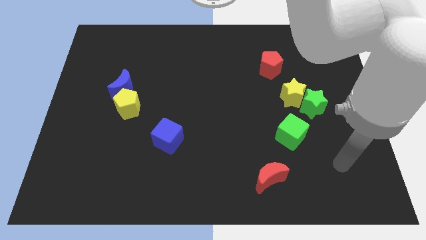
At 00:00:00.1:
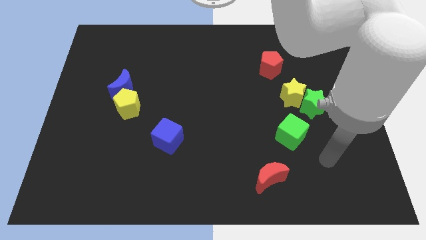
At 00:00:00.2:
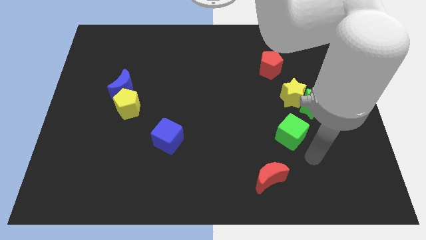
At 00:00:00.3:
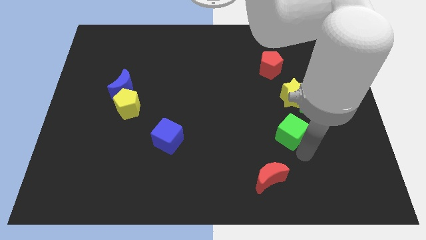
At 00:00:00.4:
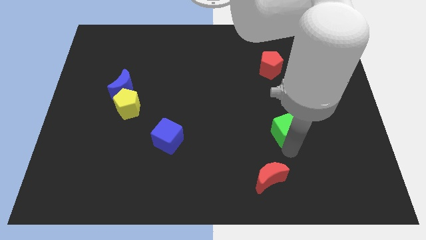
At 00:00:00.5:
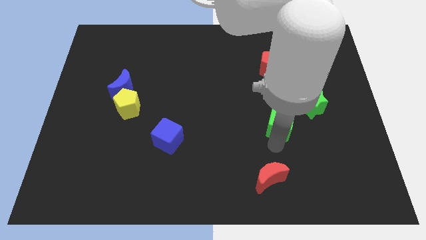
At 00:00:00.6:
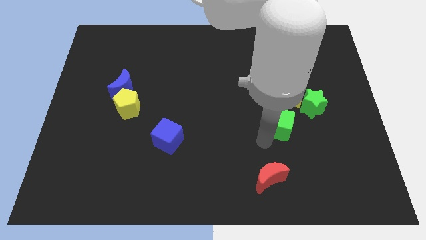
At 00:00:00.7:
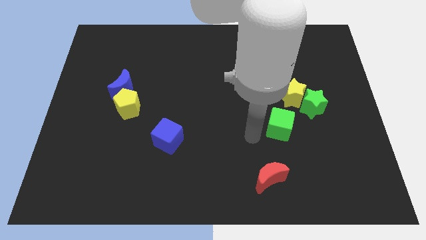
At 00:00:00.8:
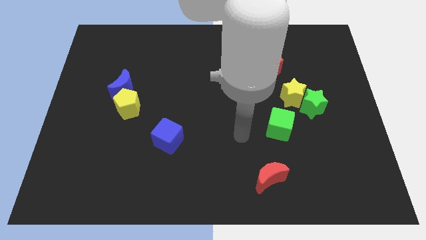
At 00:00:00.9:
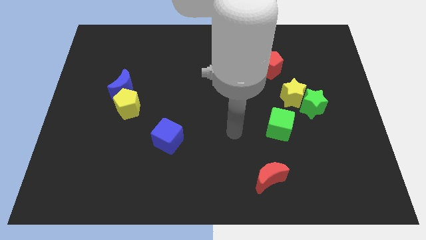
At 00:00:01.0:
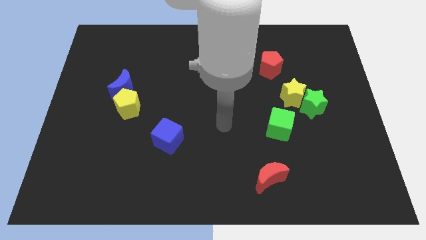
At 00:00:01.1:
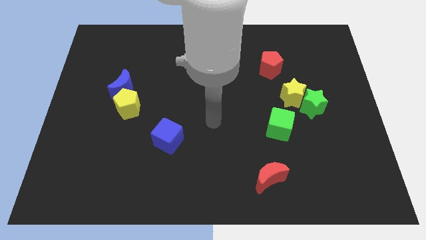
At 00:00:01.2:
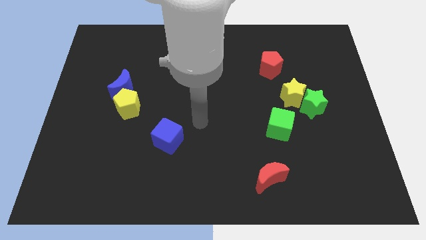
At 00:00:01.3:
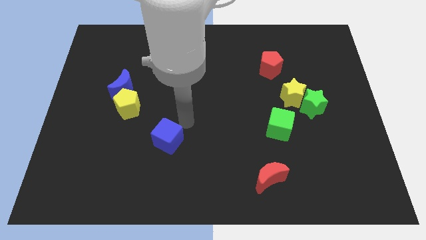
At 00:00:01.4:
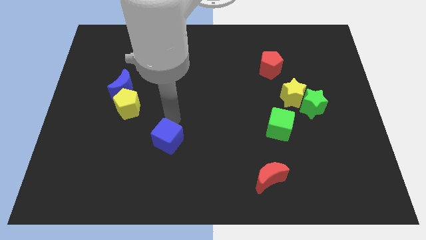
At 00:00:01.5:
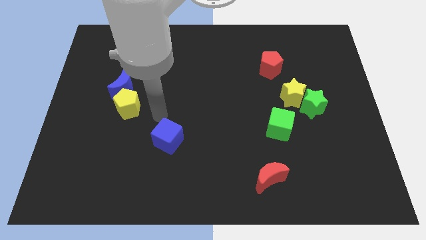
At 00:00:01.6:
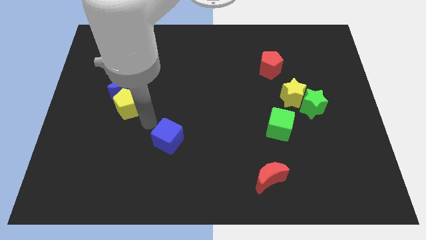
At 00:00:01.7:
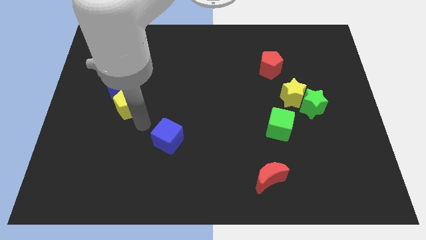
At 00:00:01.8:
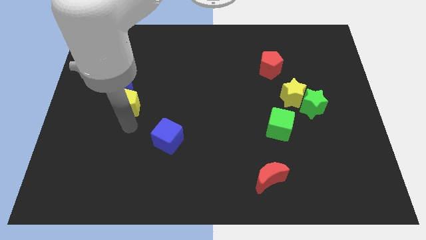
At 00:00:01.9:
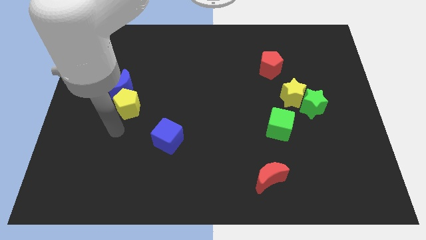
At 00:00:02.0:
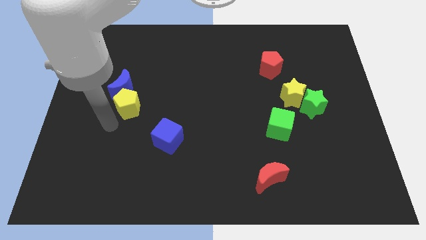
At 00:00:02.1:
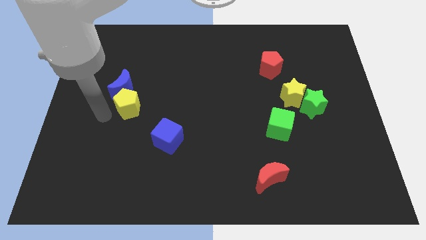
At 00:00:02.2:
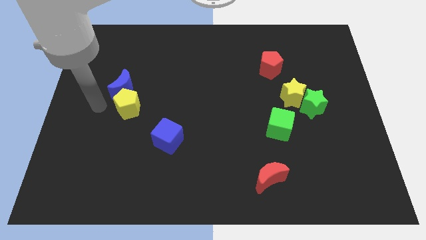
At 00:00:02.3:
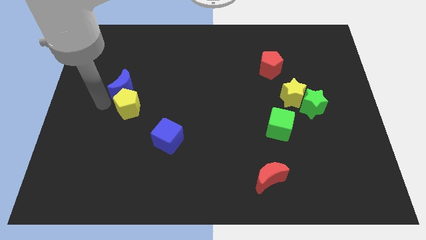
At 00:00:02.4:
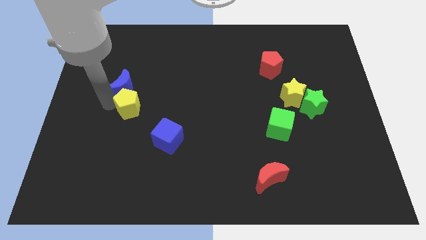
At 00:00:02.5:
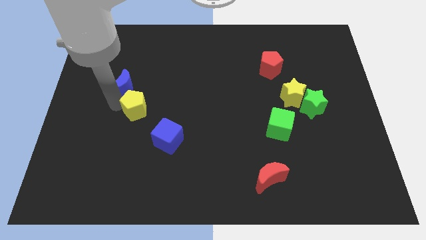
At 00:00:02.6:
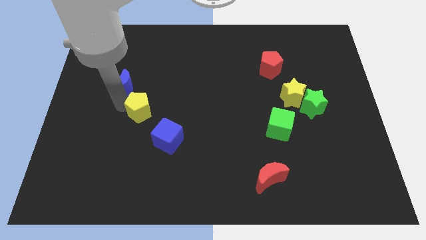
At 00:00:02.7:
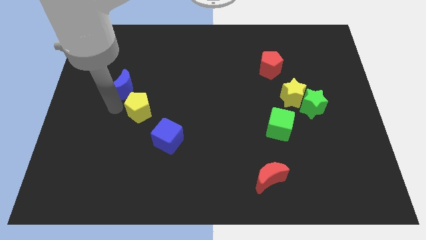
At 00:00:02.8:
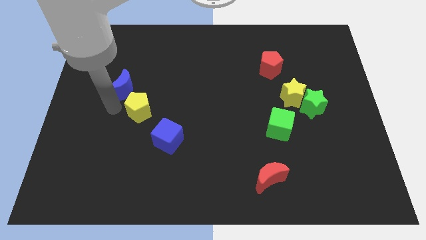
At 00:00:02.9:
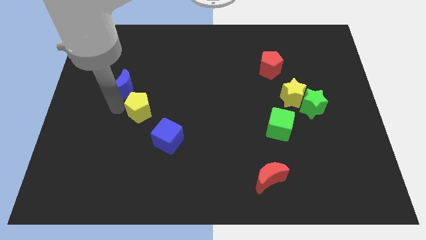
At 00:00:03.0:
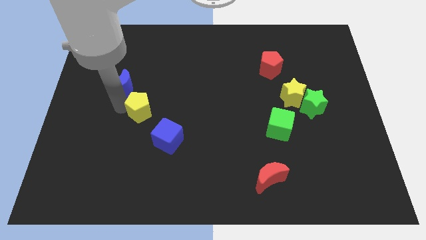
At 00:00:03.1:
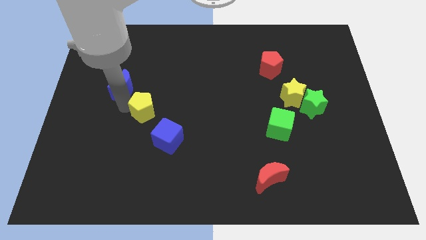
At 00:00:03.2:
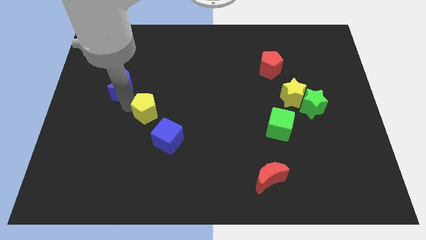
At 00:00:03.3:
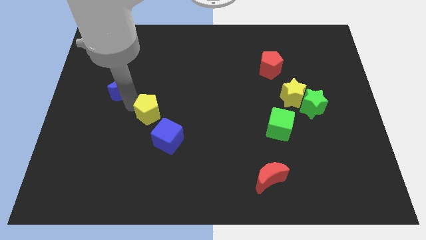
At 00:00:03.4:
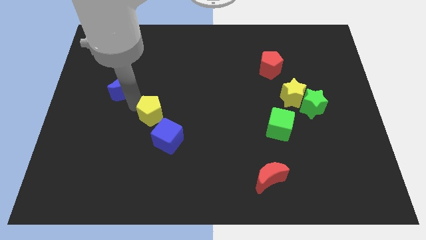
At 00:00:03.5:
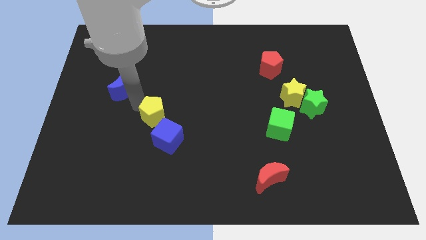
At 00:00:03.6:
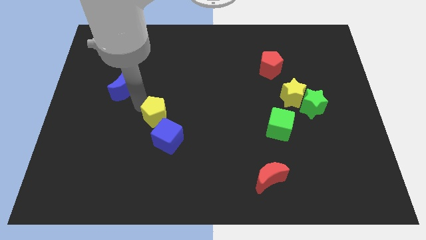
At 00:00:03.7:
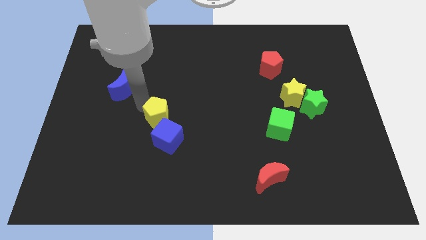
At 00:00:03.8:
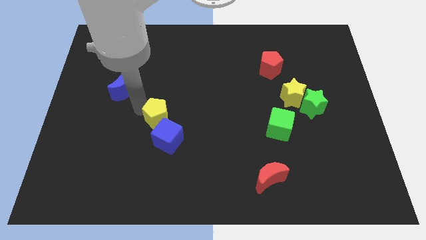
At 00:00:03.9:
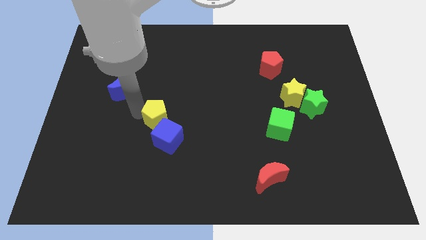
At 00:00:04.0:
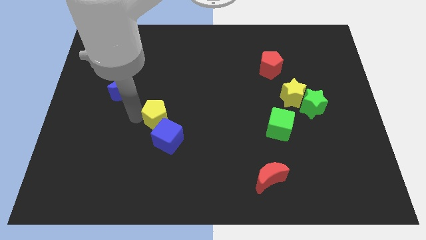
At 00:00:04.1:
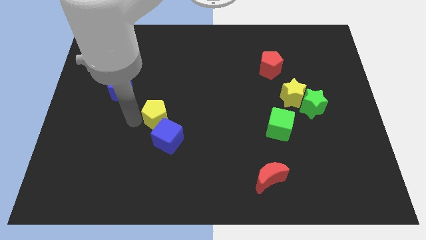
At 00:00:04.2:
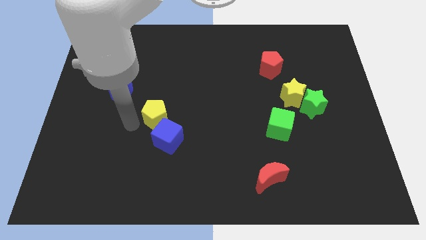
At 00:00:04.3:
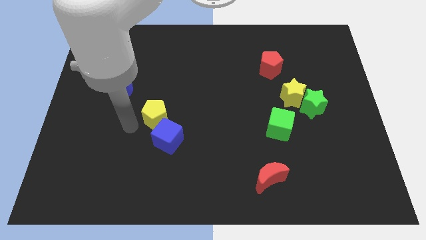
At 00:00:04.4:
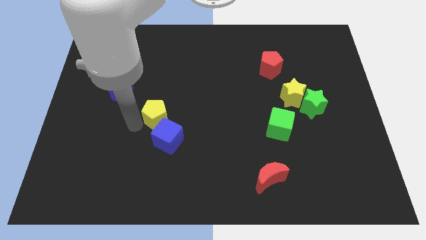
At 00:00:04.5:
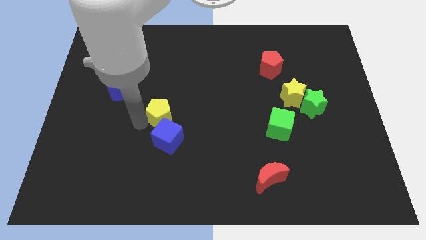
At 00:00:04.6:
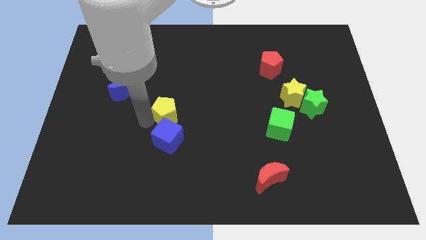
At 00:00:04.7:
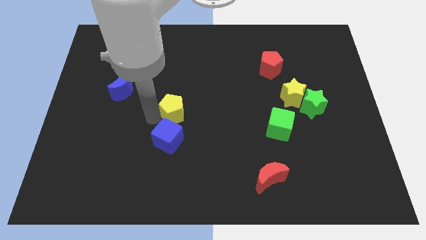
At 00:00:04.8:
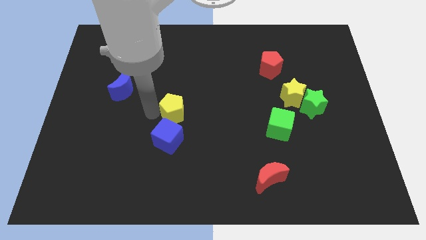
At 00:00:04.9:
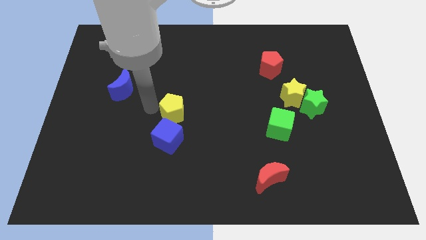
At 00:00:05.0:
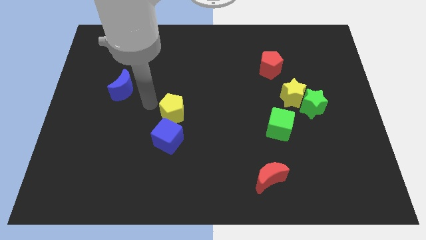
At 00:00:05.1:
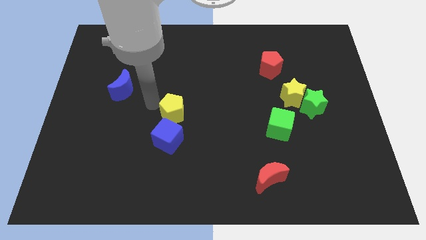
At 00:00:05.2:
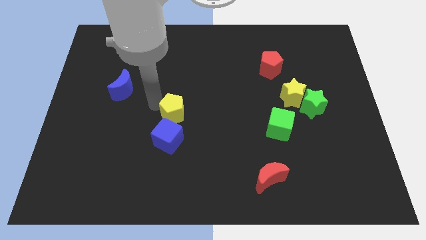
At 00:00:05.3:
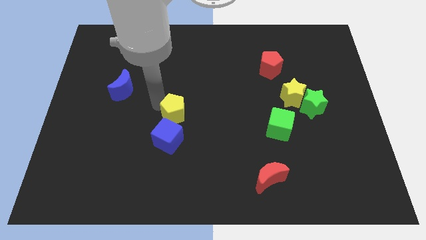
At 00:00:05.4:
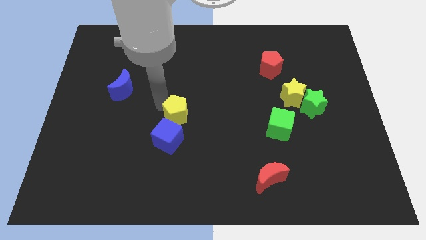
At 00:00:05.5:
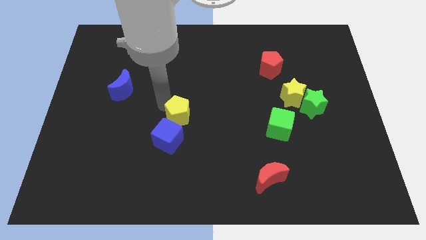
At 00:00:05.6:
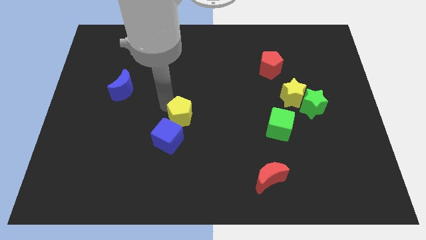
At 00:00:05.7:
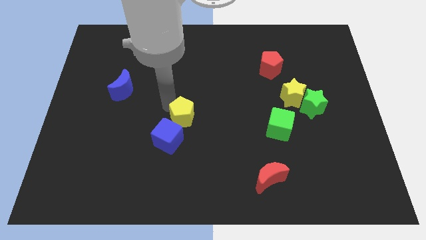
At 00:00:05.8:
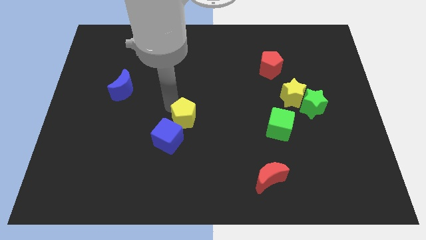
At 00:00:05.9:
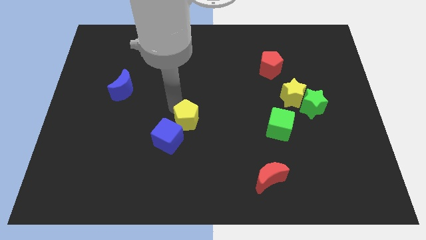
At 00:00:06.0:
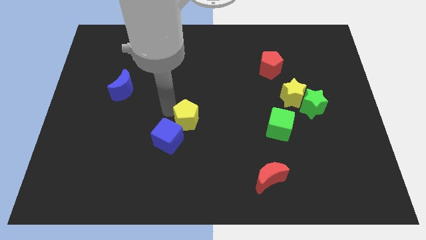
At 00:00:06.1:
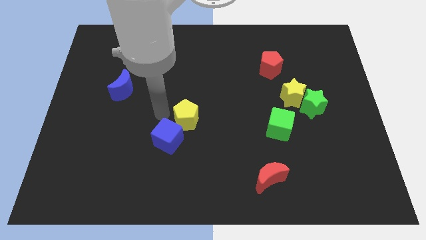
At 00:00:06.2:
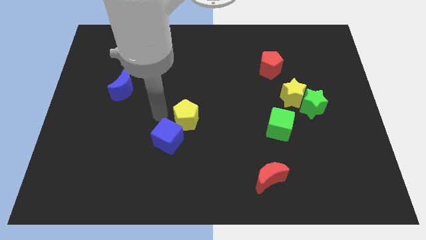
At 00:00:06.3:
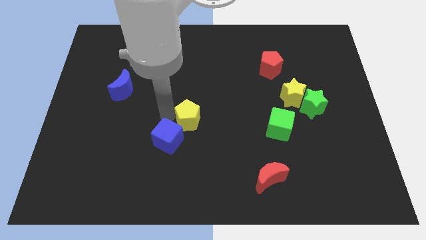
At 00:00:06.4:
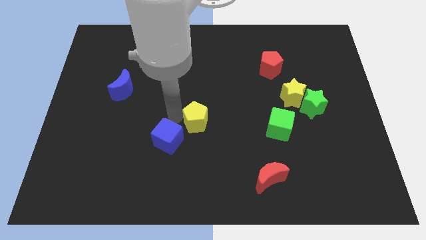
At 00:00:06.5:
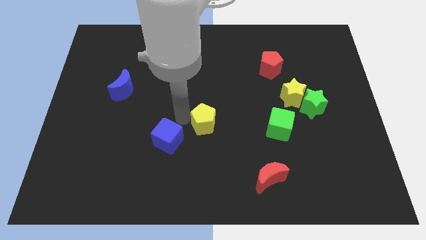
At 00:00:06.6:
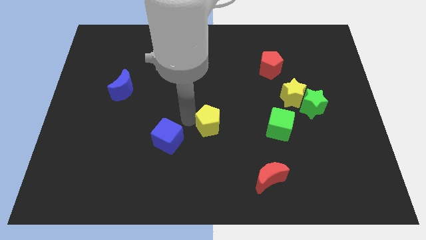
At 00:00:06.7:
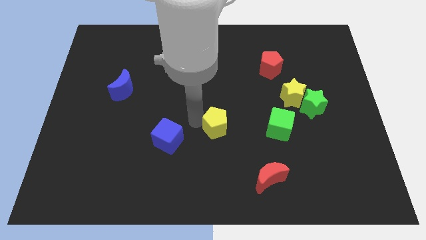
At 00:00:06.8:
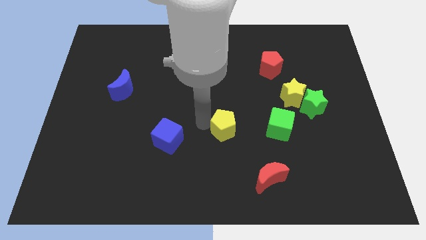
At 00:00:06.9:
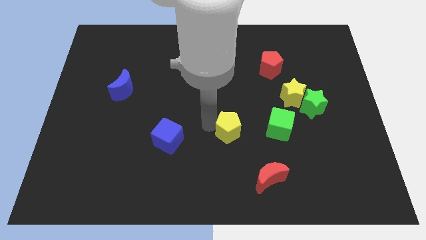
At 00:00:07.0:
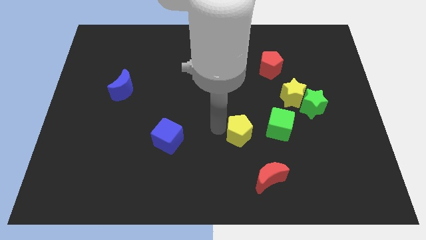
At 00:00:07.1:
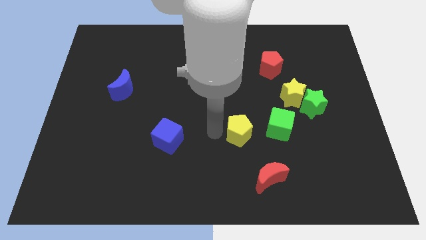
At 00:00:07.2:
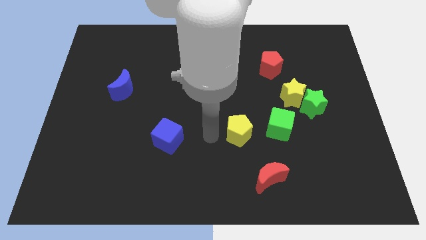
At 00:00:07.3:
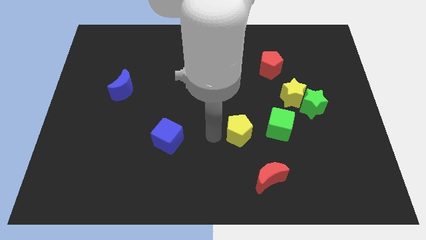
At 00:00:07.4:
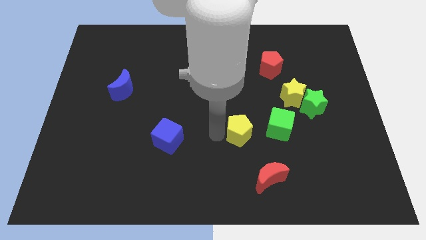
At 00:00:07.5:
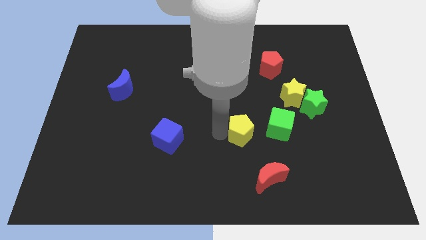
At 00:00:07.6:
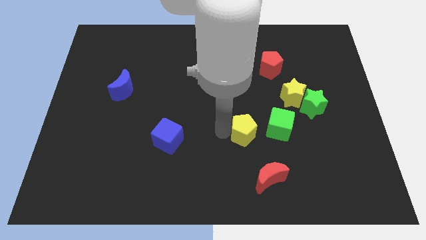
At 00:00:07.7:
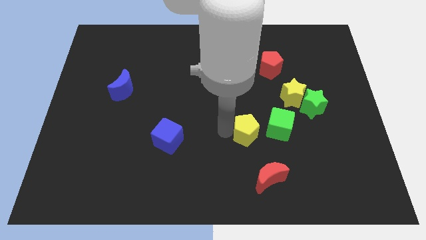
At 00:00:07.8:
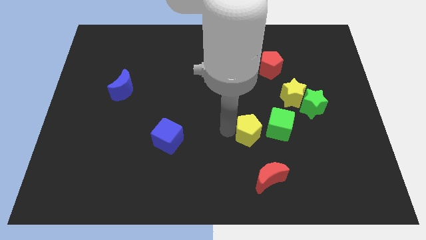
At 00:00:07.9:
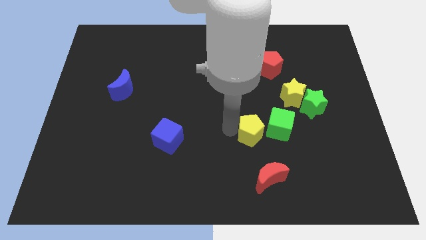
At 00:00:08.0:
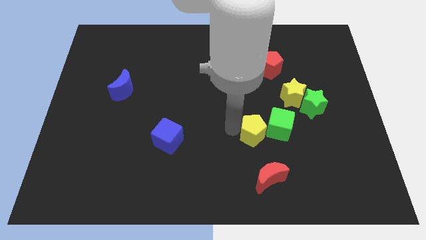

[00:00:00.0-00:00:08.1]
slide the yellow pentagon next to the green cube
